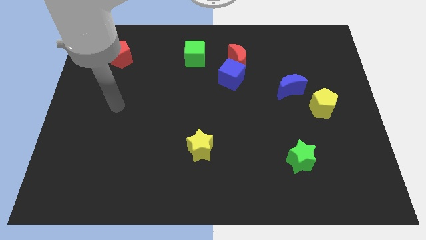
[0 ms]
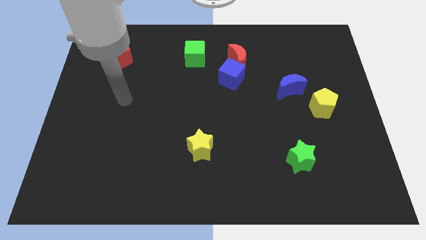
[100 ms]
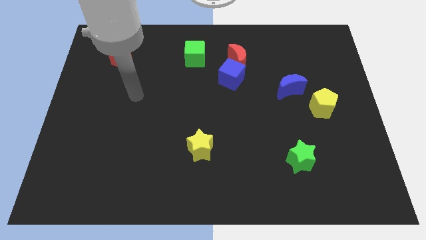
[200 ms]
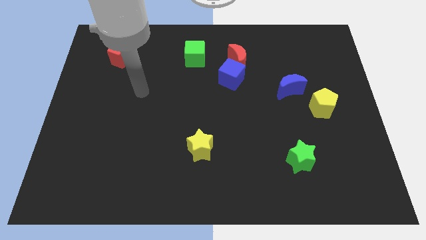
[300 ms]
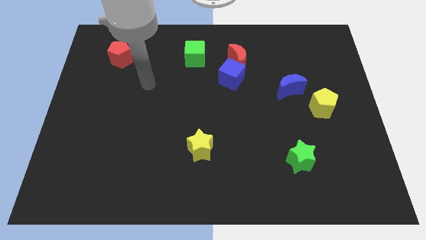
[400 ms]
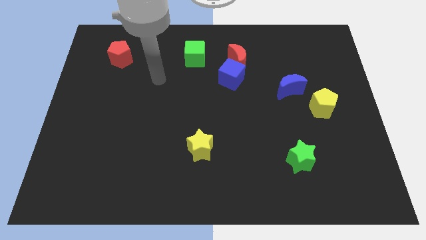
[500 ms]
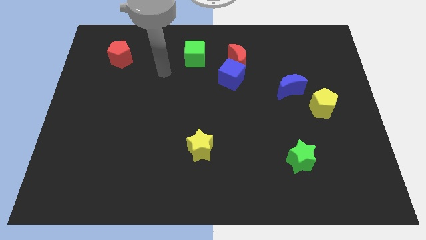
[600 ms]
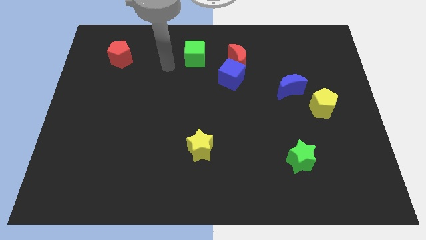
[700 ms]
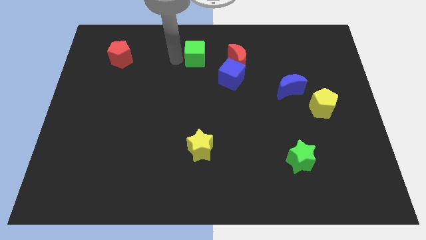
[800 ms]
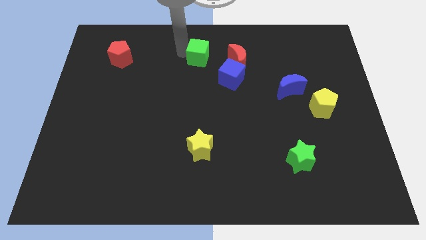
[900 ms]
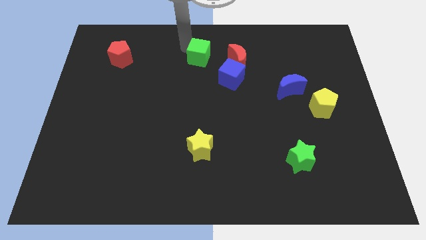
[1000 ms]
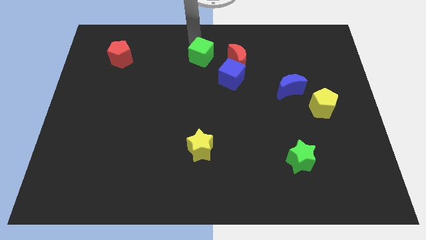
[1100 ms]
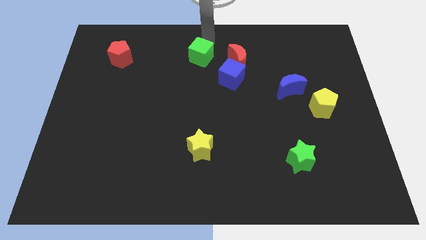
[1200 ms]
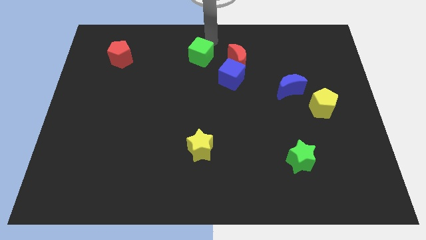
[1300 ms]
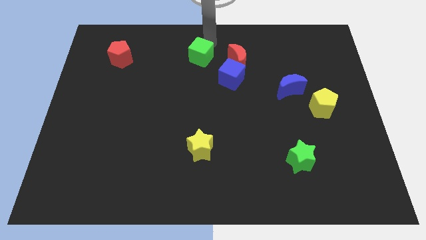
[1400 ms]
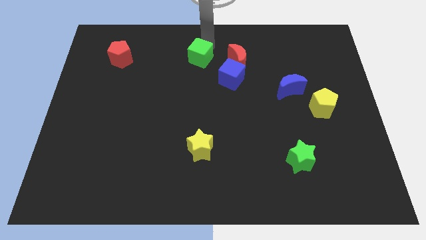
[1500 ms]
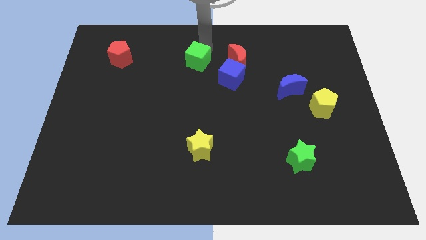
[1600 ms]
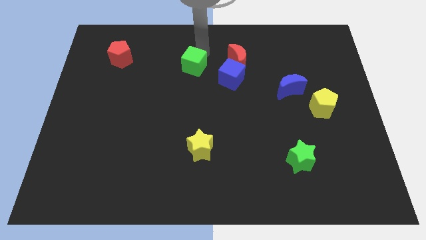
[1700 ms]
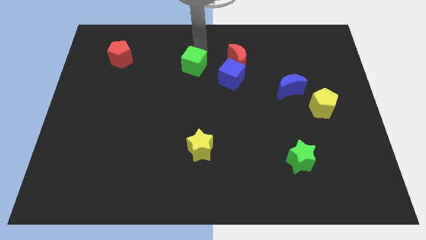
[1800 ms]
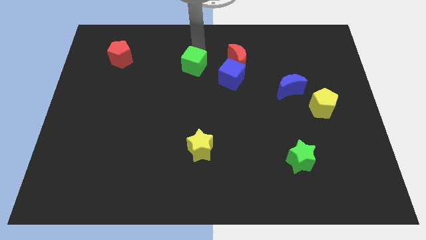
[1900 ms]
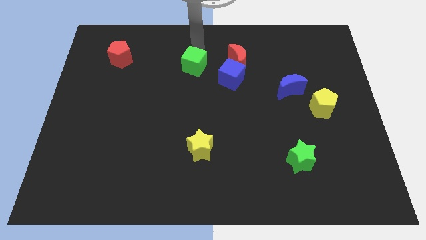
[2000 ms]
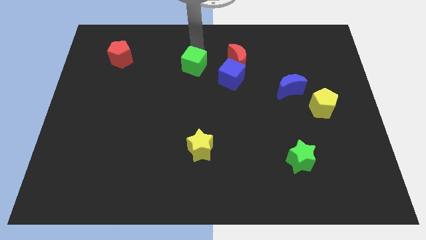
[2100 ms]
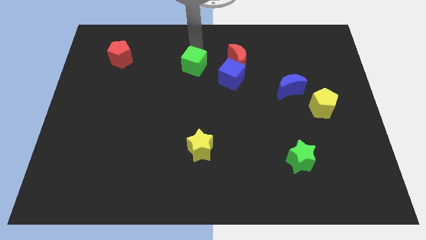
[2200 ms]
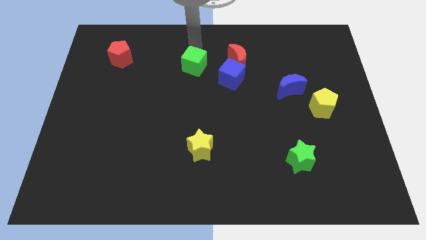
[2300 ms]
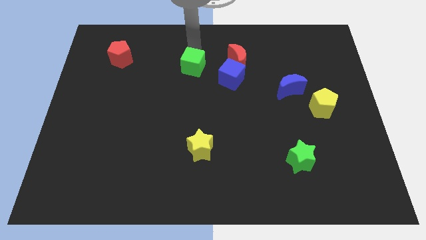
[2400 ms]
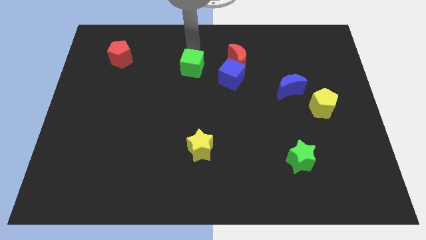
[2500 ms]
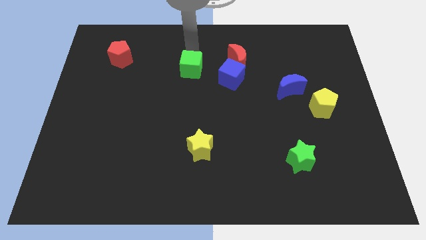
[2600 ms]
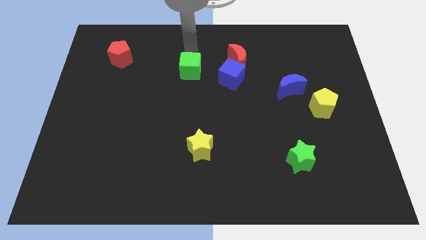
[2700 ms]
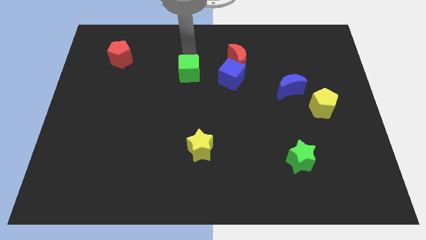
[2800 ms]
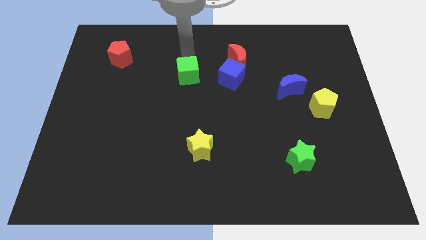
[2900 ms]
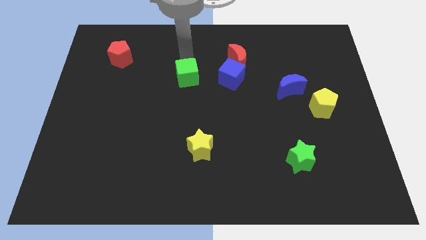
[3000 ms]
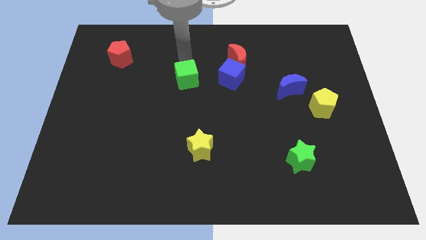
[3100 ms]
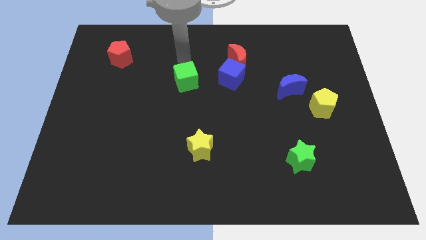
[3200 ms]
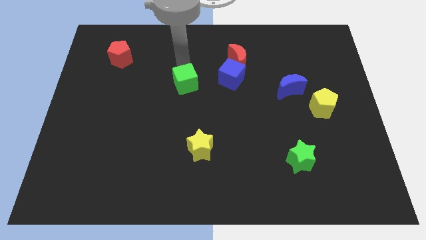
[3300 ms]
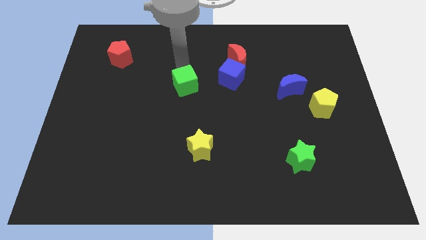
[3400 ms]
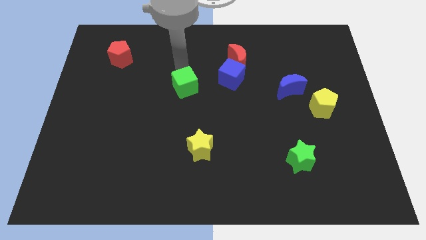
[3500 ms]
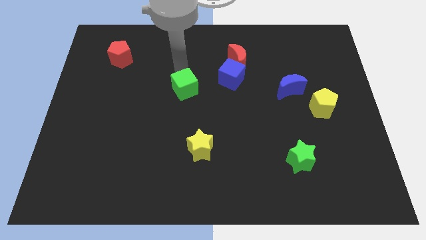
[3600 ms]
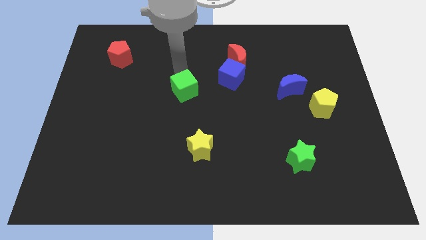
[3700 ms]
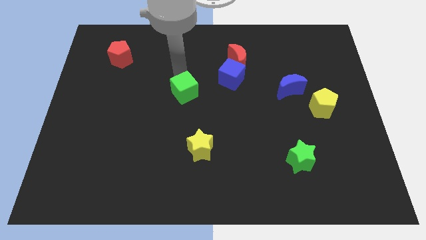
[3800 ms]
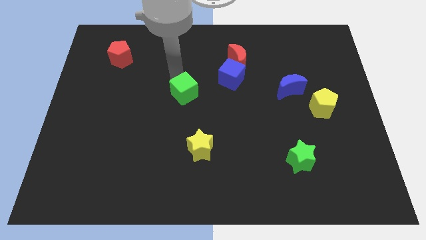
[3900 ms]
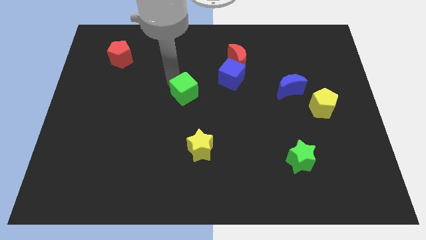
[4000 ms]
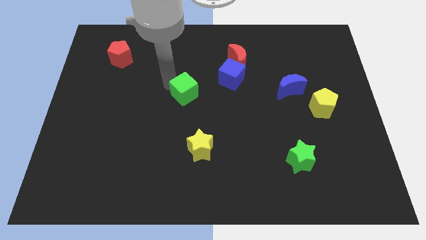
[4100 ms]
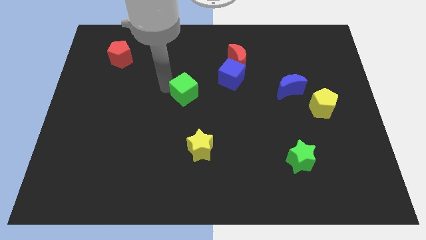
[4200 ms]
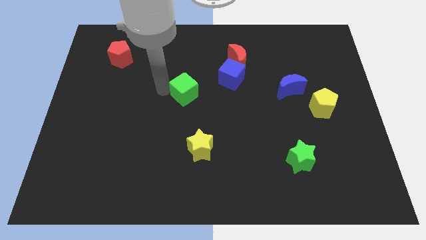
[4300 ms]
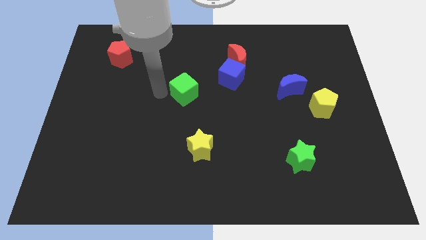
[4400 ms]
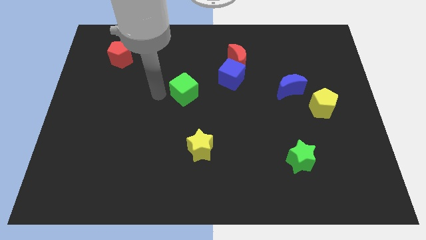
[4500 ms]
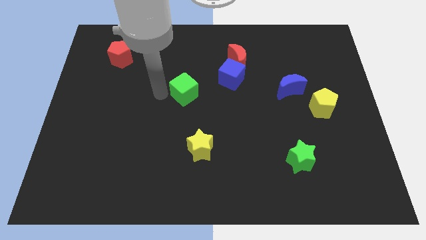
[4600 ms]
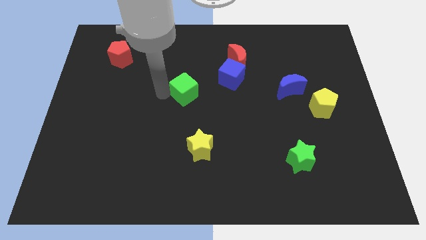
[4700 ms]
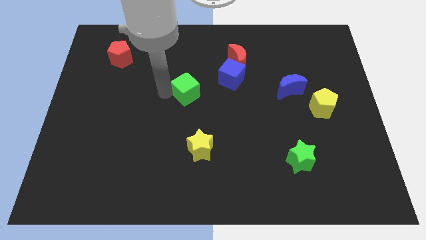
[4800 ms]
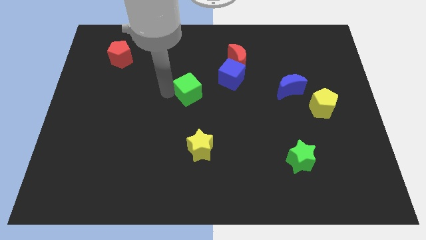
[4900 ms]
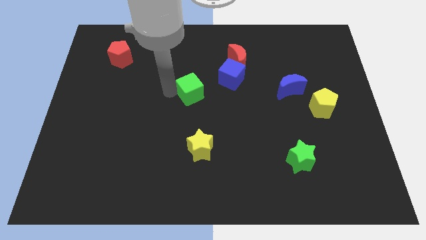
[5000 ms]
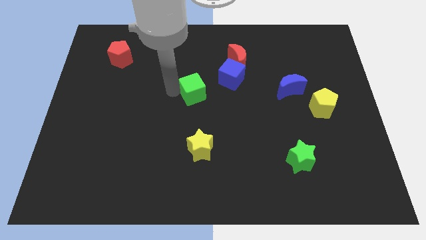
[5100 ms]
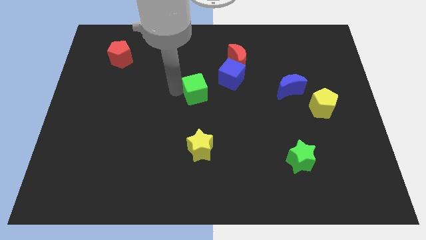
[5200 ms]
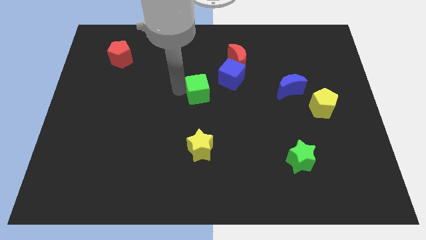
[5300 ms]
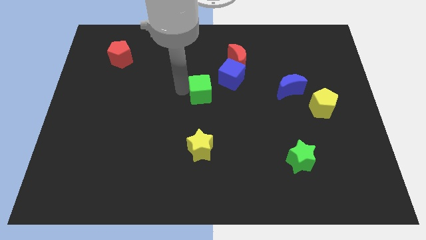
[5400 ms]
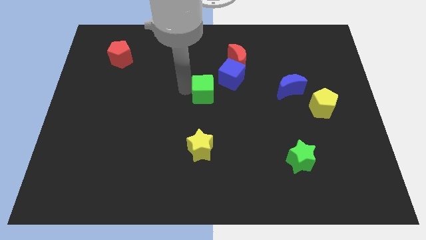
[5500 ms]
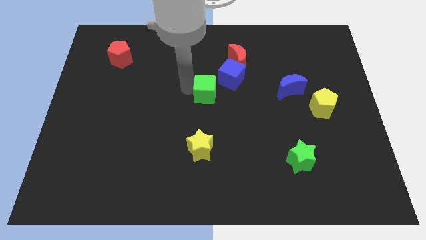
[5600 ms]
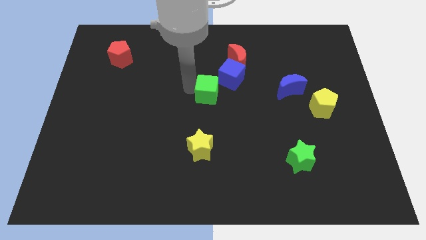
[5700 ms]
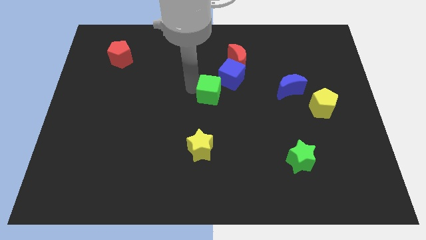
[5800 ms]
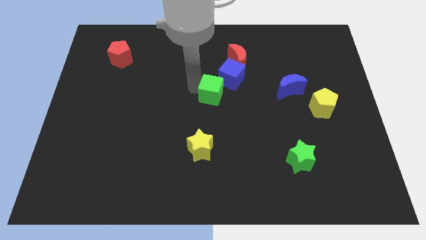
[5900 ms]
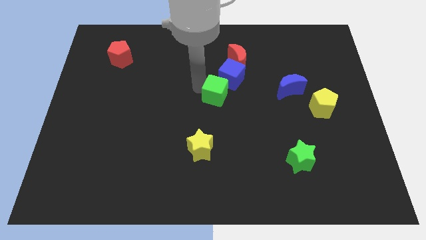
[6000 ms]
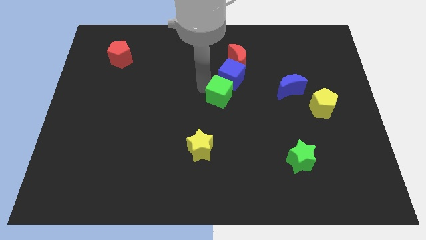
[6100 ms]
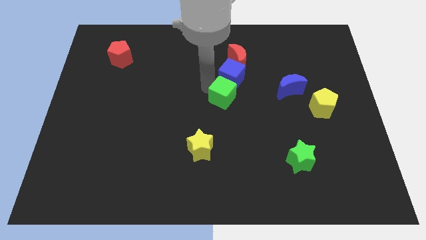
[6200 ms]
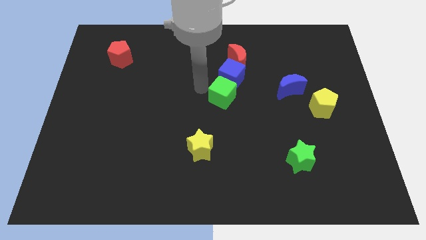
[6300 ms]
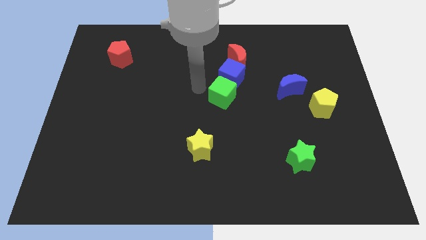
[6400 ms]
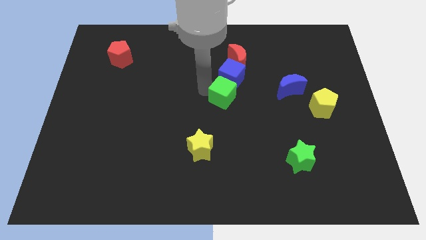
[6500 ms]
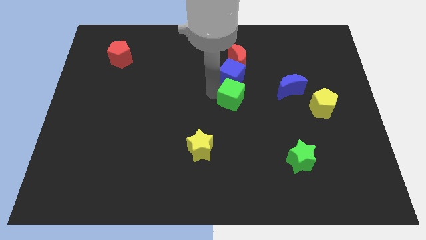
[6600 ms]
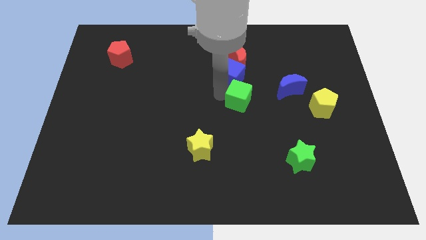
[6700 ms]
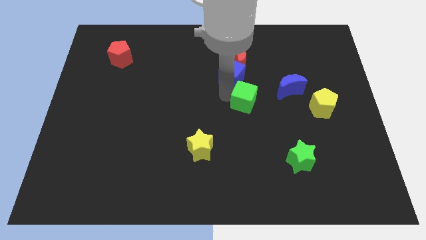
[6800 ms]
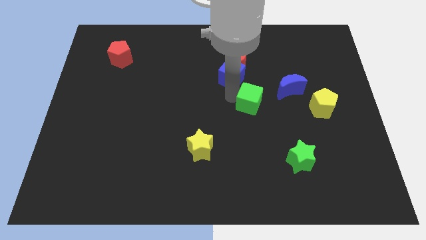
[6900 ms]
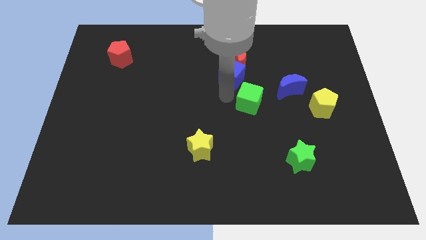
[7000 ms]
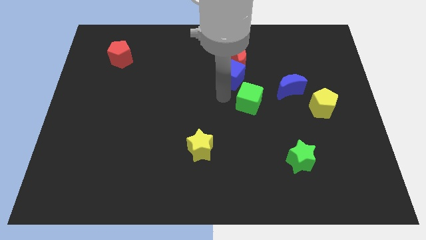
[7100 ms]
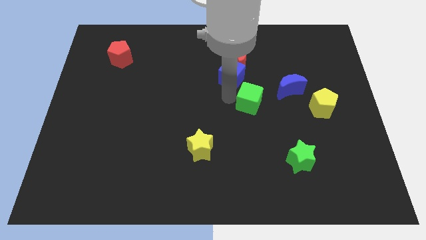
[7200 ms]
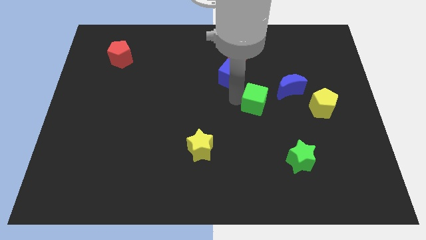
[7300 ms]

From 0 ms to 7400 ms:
move the green cube to the left of the yellow pentagon
